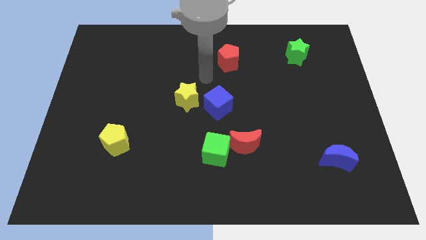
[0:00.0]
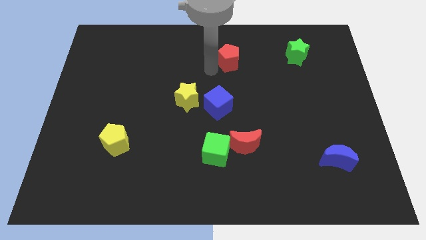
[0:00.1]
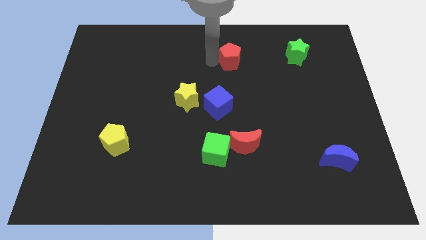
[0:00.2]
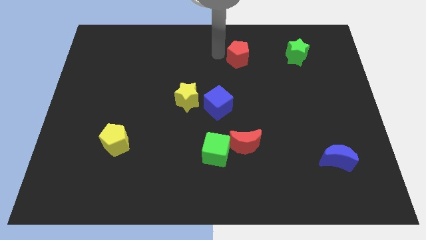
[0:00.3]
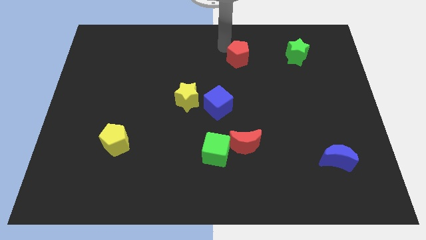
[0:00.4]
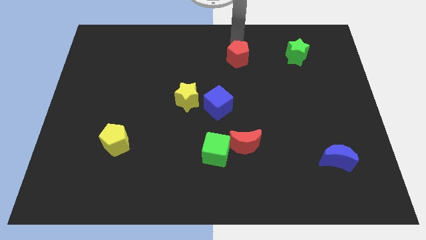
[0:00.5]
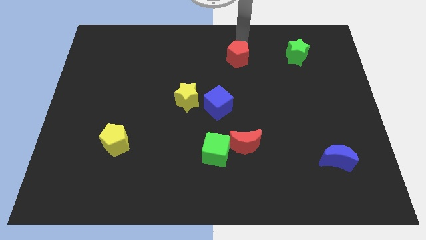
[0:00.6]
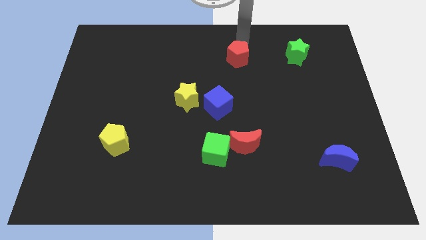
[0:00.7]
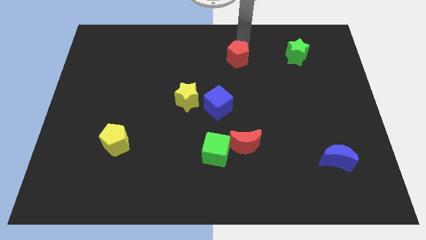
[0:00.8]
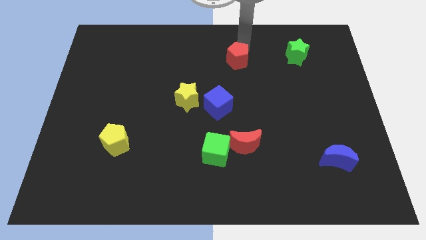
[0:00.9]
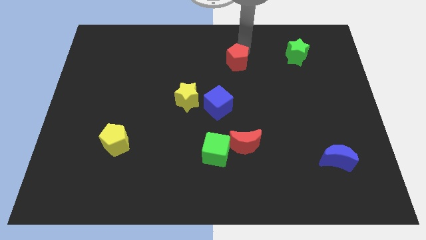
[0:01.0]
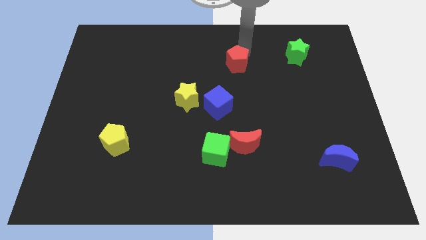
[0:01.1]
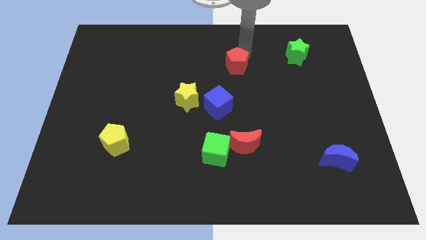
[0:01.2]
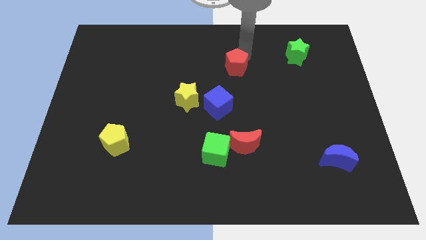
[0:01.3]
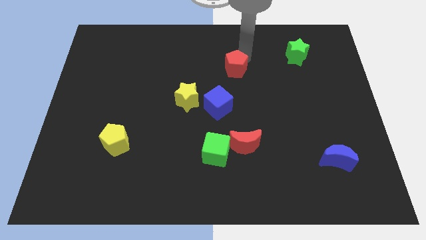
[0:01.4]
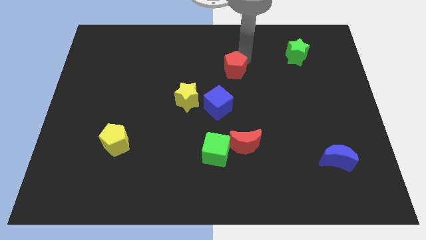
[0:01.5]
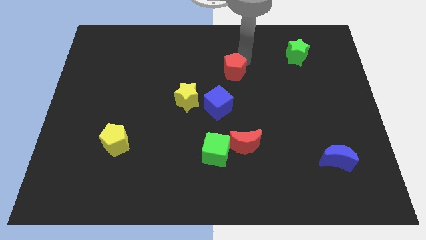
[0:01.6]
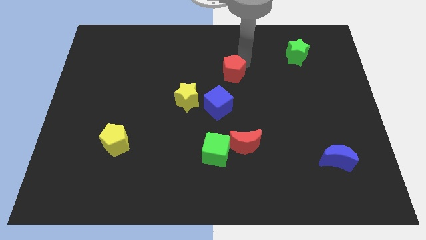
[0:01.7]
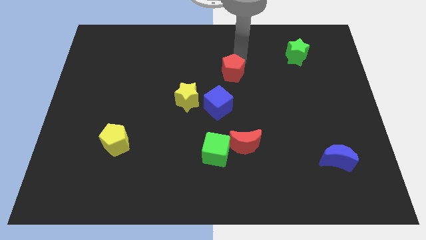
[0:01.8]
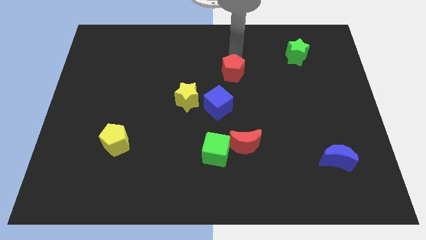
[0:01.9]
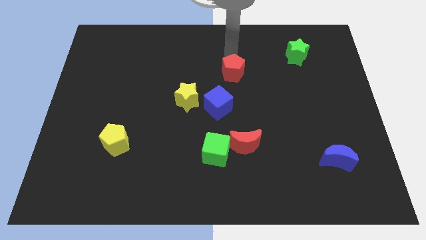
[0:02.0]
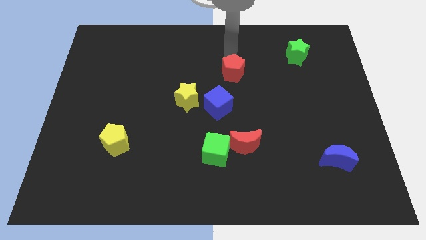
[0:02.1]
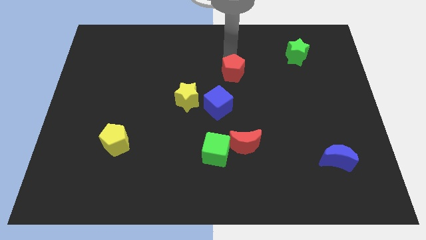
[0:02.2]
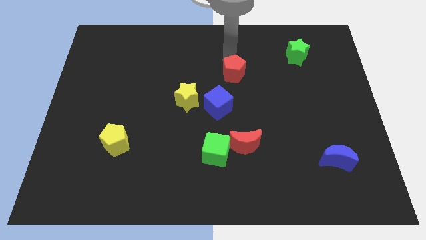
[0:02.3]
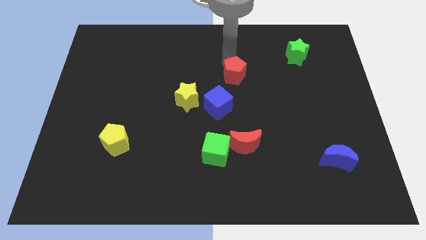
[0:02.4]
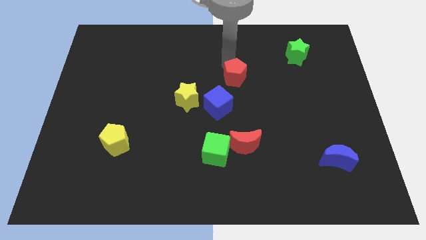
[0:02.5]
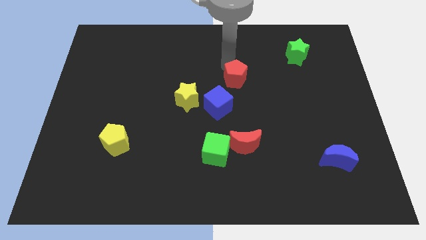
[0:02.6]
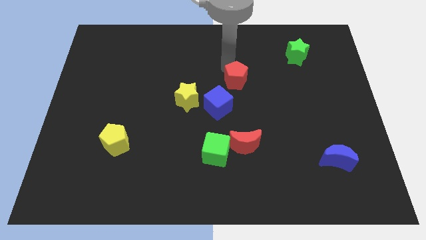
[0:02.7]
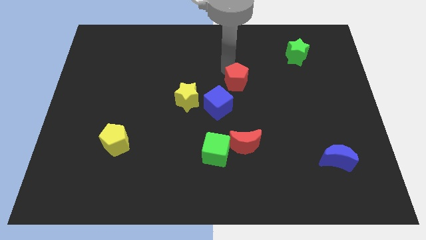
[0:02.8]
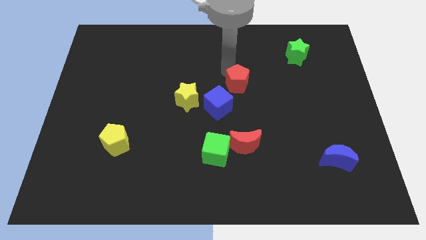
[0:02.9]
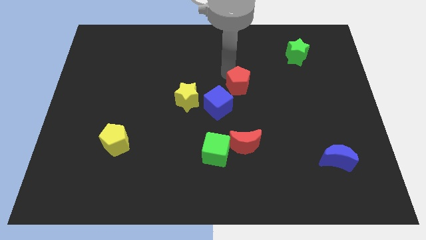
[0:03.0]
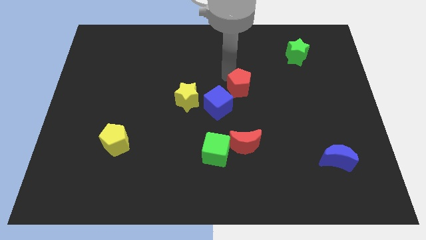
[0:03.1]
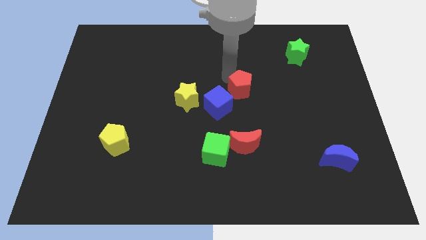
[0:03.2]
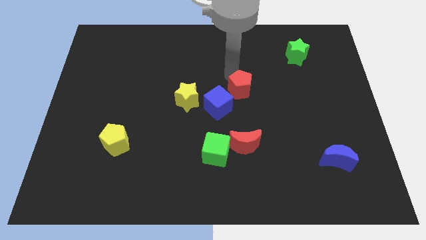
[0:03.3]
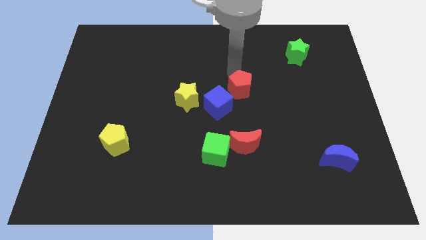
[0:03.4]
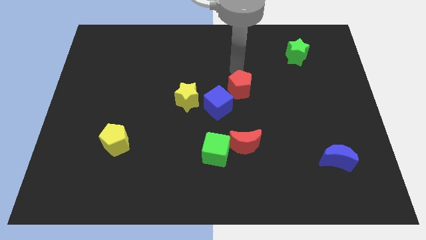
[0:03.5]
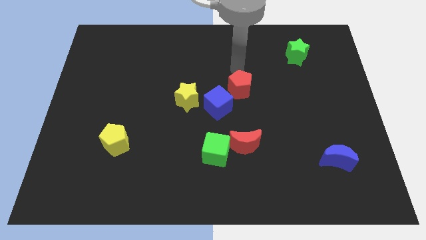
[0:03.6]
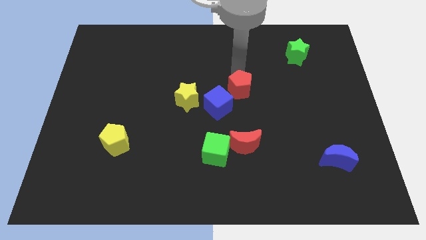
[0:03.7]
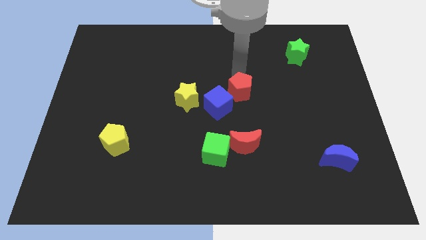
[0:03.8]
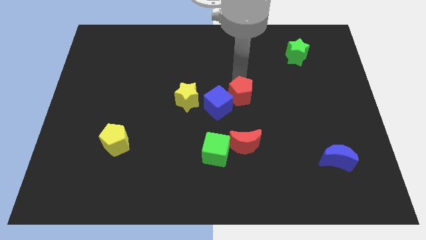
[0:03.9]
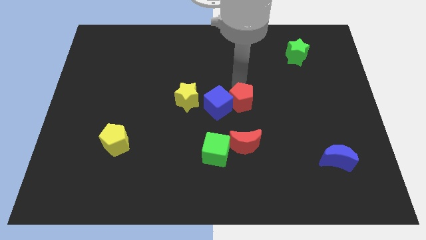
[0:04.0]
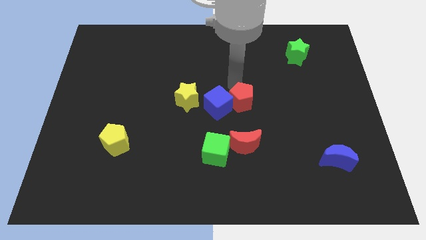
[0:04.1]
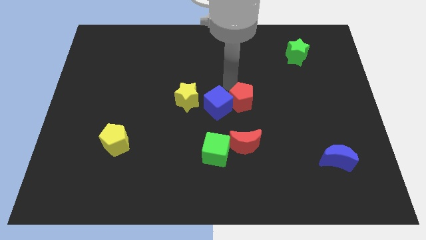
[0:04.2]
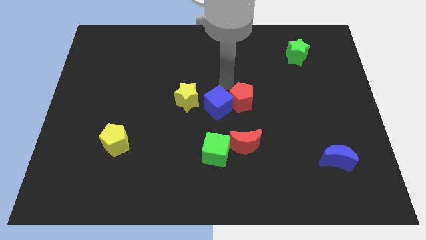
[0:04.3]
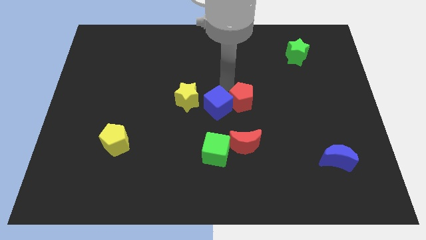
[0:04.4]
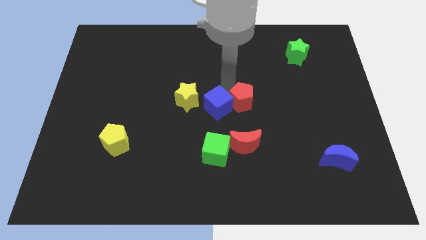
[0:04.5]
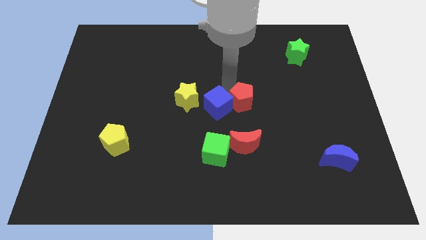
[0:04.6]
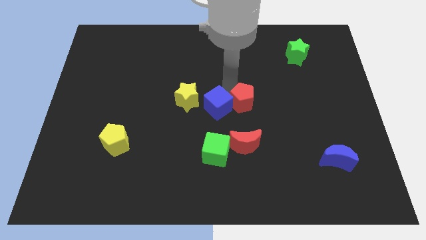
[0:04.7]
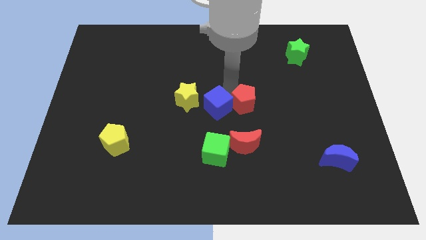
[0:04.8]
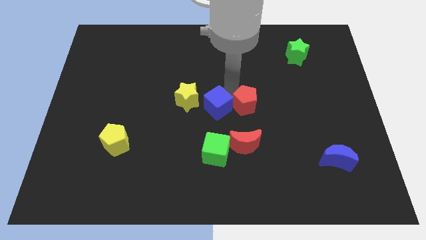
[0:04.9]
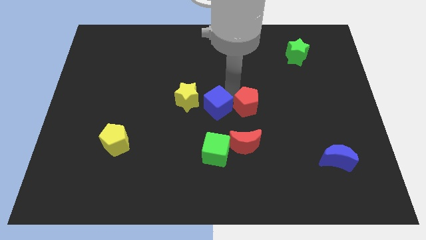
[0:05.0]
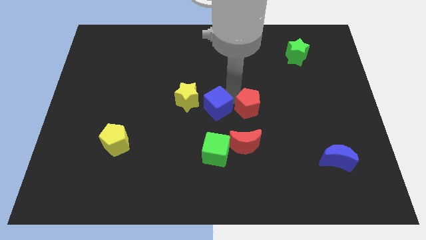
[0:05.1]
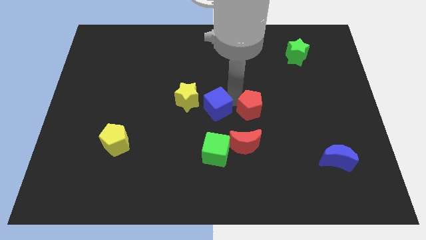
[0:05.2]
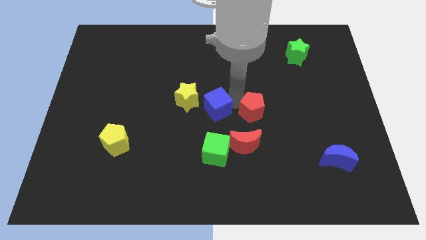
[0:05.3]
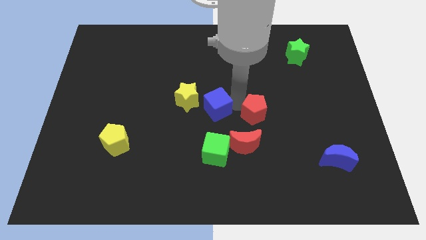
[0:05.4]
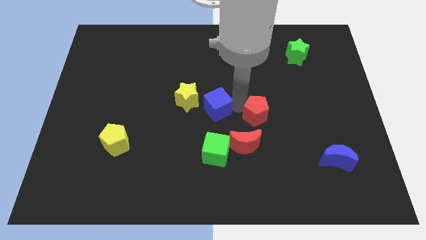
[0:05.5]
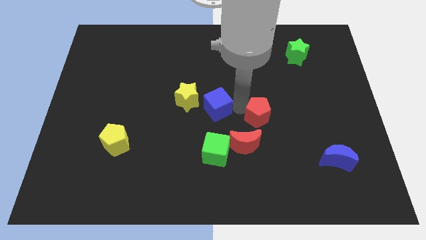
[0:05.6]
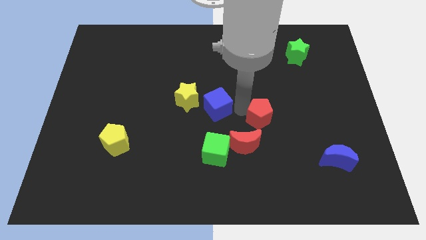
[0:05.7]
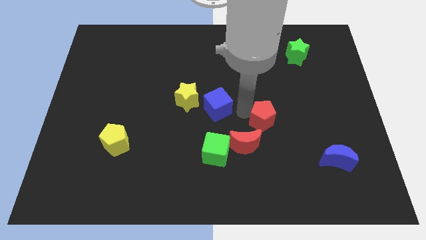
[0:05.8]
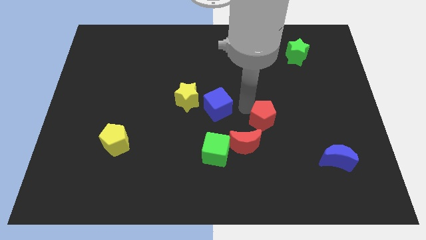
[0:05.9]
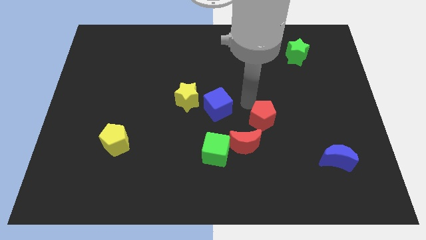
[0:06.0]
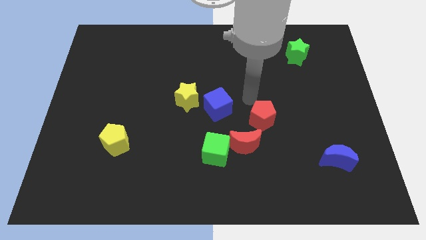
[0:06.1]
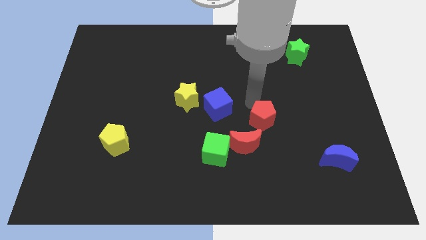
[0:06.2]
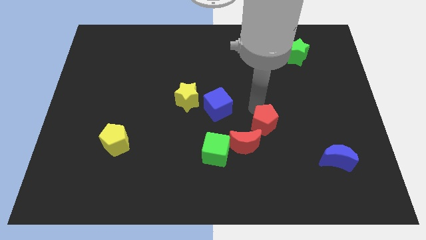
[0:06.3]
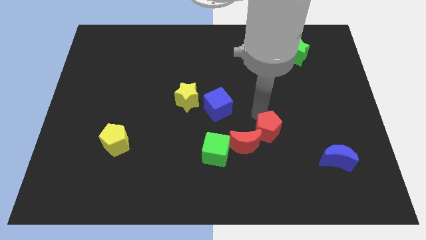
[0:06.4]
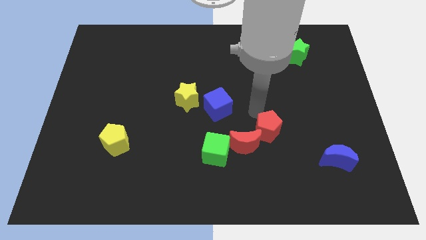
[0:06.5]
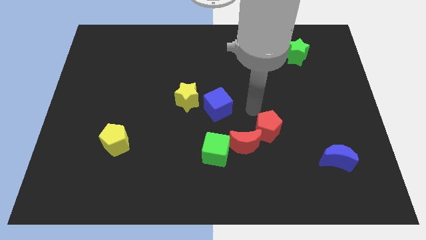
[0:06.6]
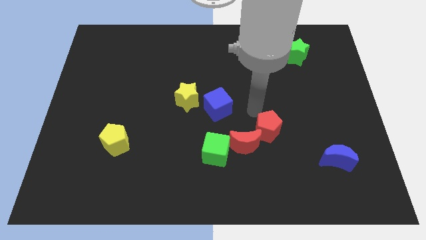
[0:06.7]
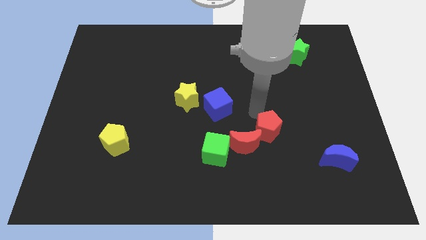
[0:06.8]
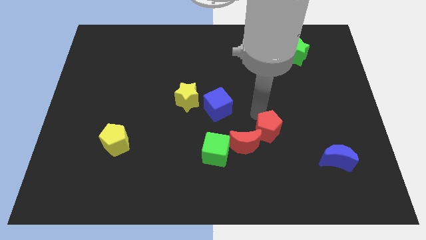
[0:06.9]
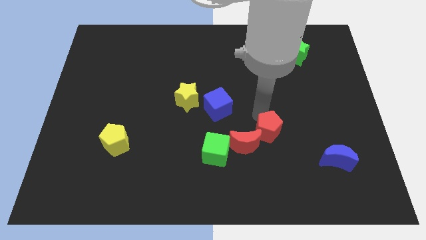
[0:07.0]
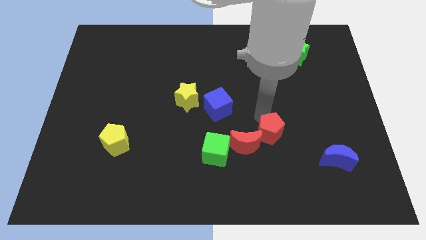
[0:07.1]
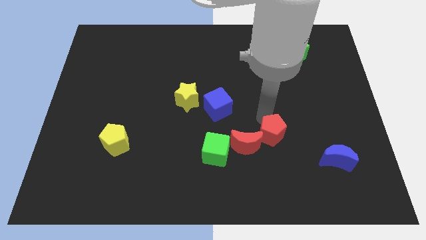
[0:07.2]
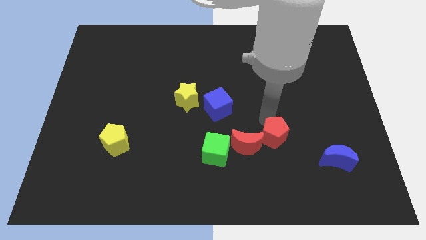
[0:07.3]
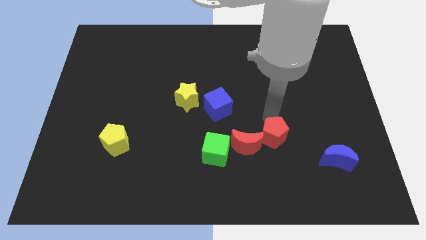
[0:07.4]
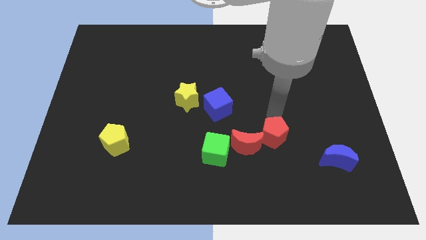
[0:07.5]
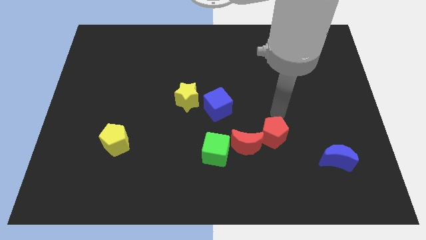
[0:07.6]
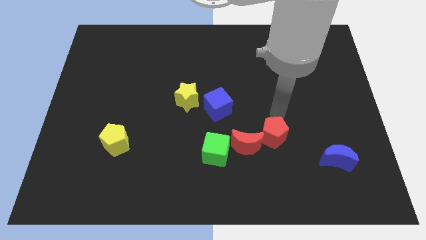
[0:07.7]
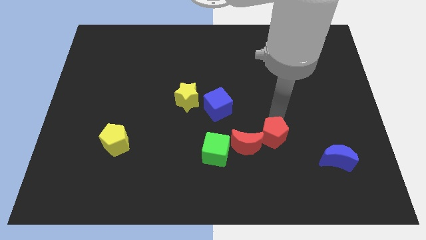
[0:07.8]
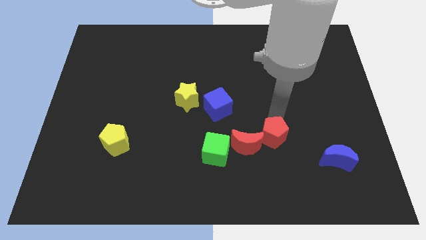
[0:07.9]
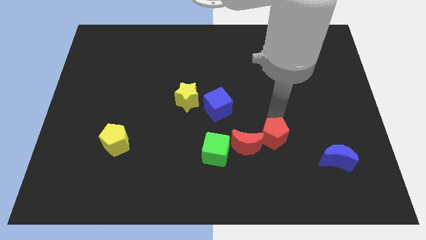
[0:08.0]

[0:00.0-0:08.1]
slide the red pentagon downwards
